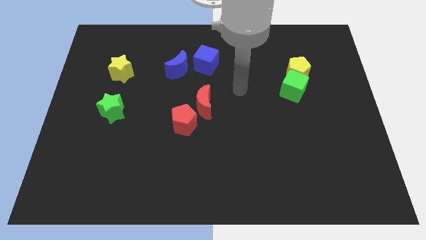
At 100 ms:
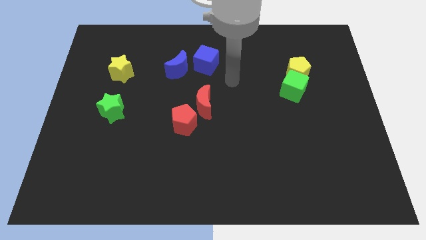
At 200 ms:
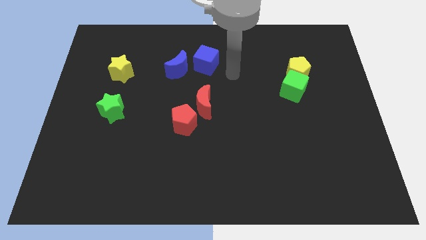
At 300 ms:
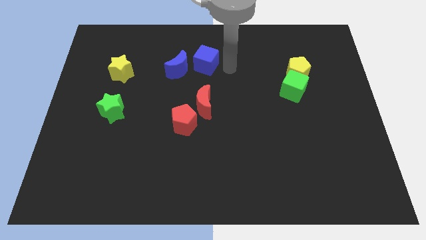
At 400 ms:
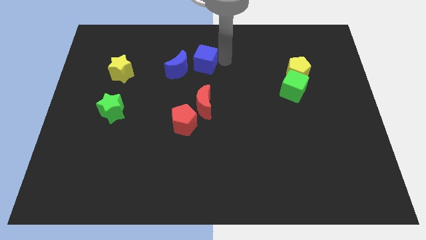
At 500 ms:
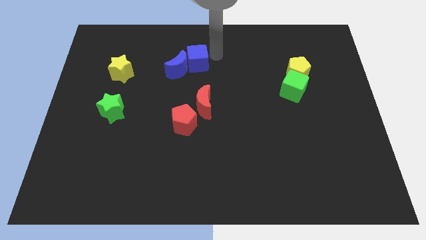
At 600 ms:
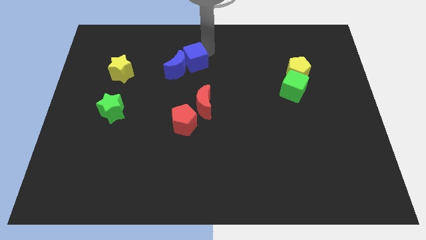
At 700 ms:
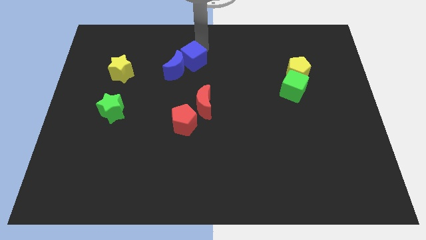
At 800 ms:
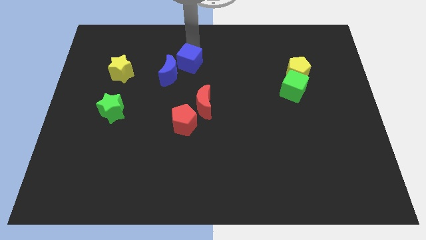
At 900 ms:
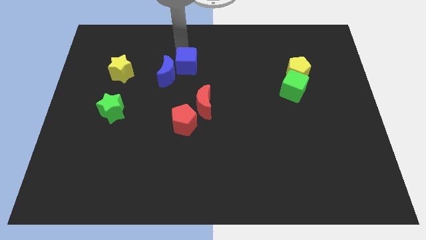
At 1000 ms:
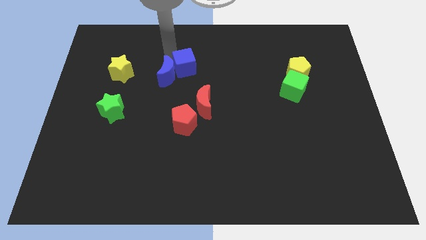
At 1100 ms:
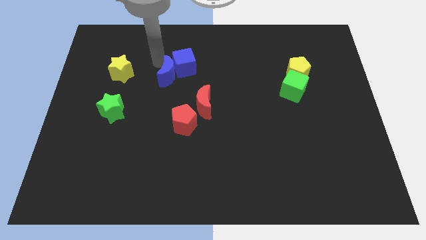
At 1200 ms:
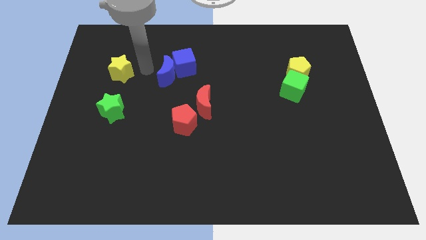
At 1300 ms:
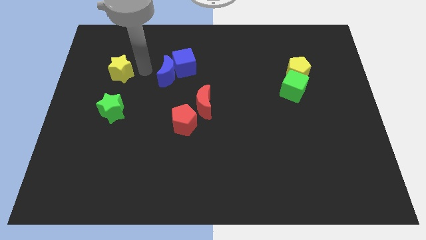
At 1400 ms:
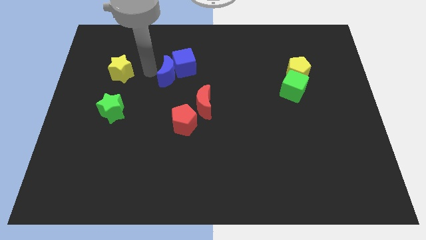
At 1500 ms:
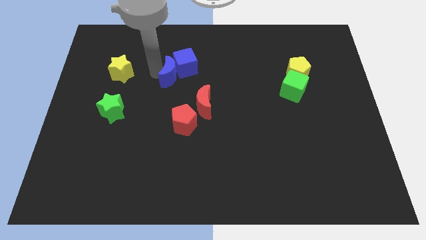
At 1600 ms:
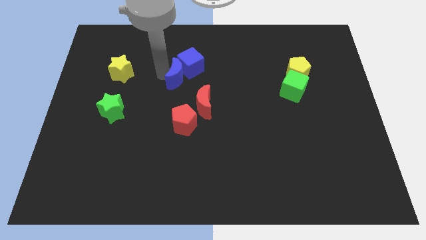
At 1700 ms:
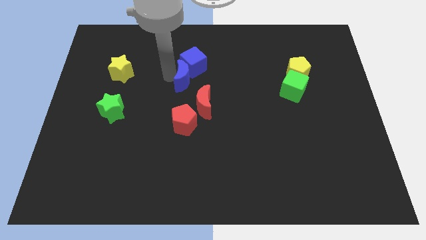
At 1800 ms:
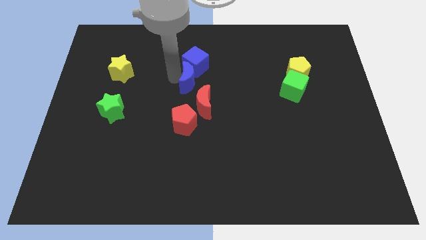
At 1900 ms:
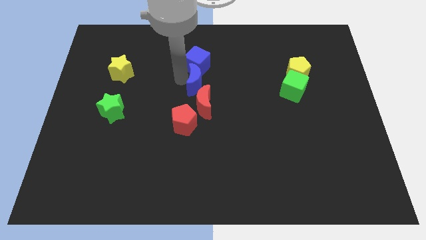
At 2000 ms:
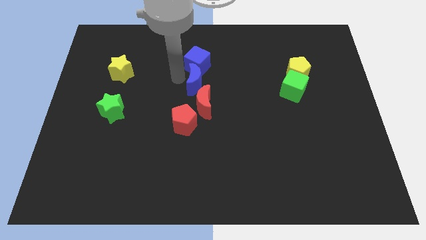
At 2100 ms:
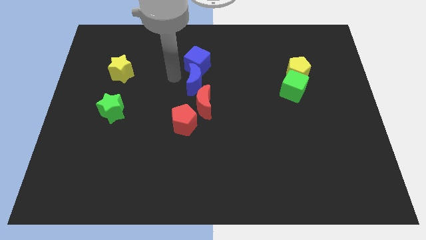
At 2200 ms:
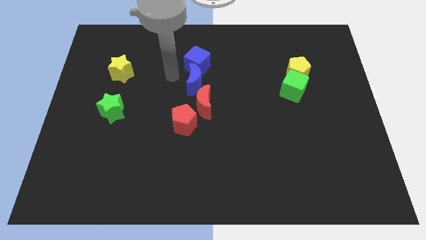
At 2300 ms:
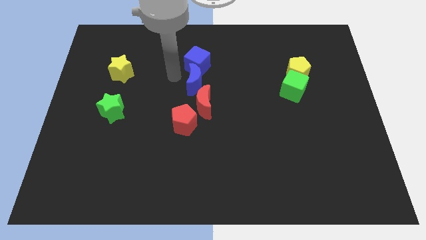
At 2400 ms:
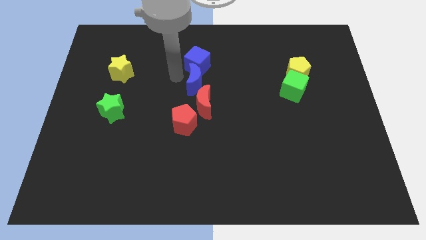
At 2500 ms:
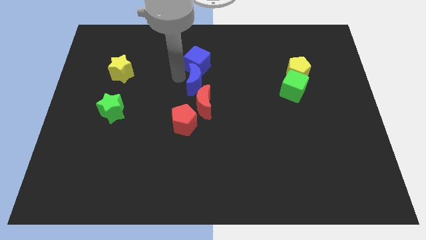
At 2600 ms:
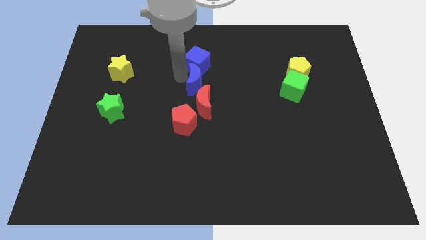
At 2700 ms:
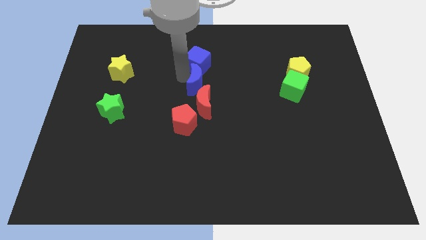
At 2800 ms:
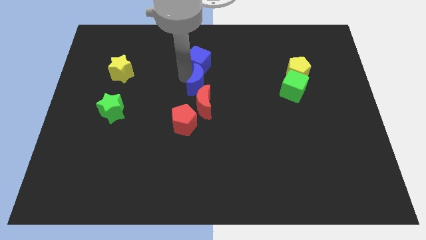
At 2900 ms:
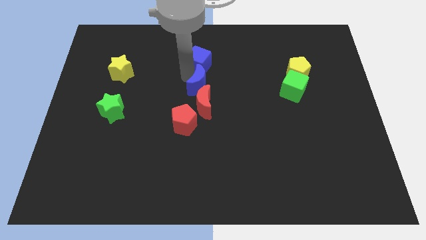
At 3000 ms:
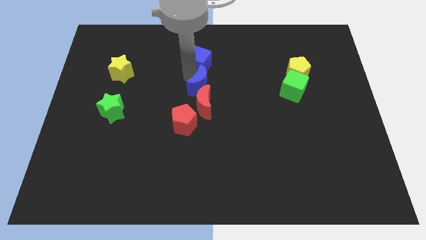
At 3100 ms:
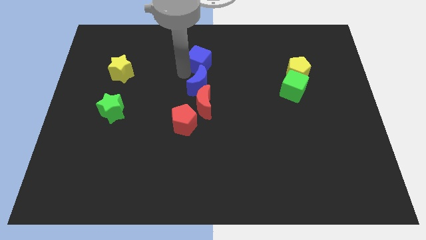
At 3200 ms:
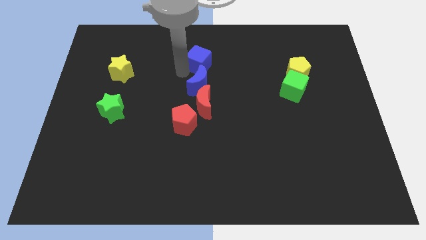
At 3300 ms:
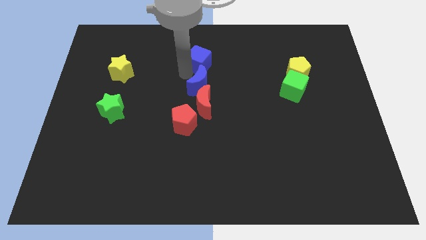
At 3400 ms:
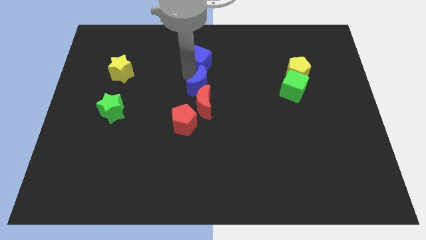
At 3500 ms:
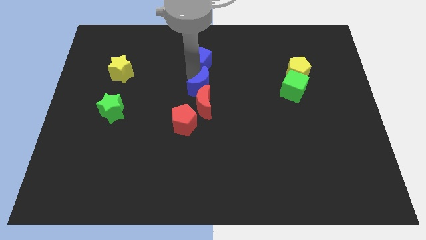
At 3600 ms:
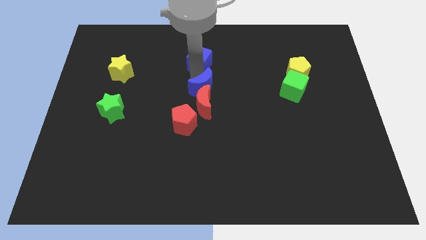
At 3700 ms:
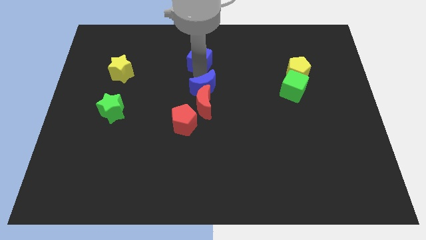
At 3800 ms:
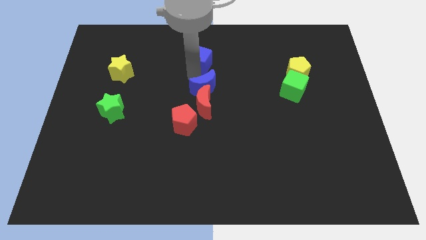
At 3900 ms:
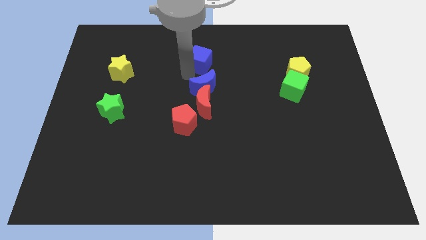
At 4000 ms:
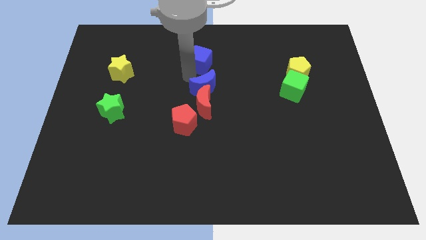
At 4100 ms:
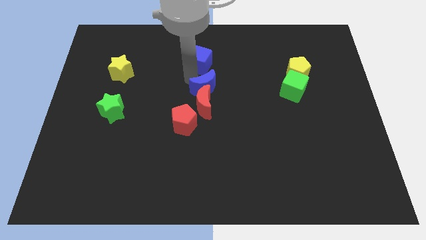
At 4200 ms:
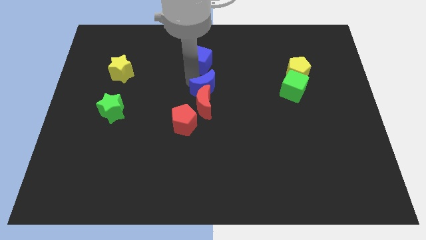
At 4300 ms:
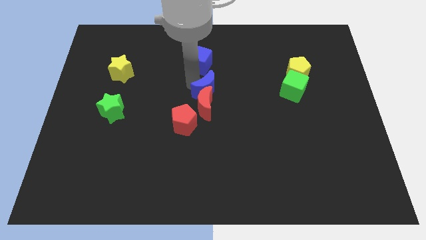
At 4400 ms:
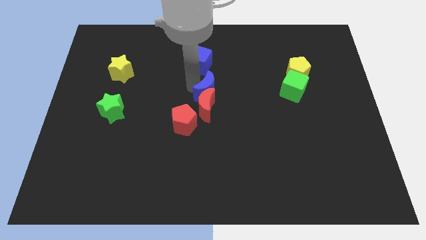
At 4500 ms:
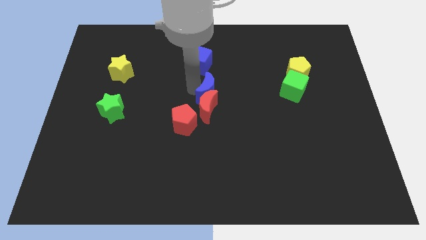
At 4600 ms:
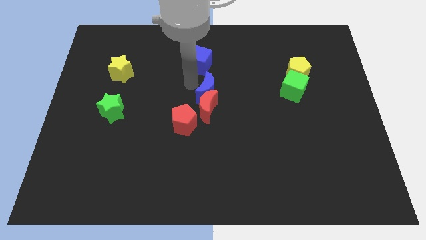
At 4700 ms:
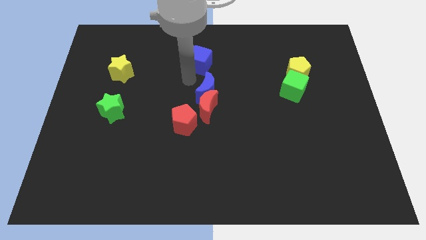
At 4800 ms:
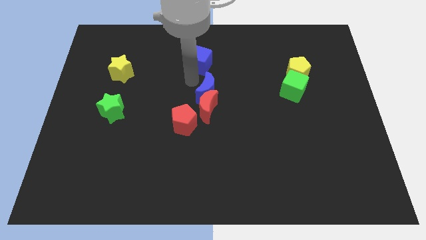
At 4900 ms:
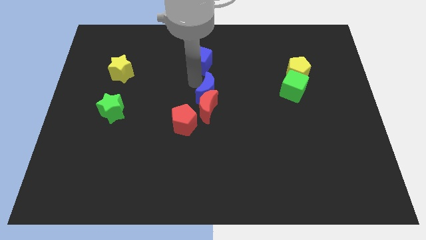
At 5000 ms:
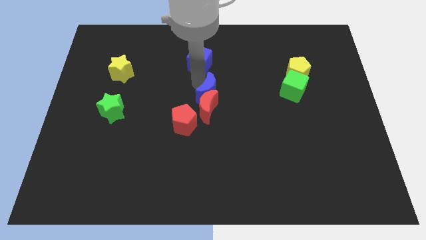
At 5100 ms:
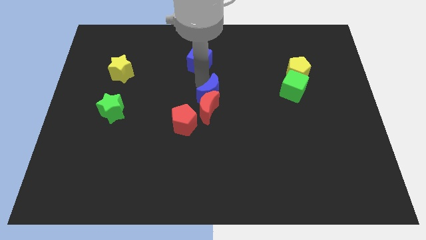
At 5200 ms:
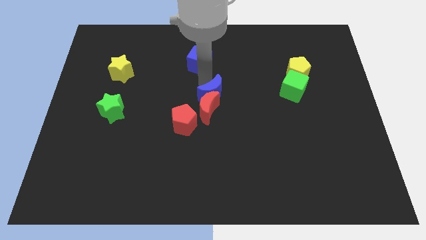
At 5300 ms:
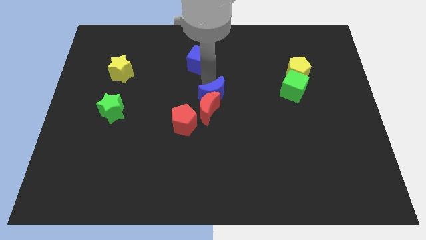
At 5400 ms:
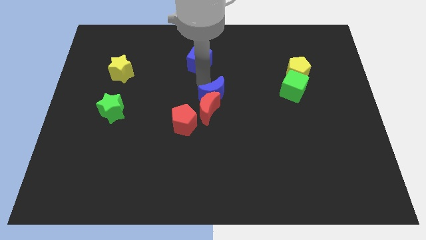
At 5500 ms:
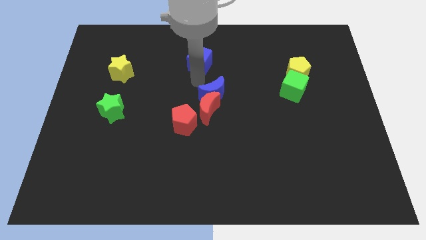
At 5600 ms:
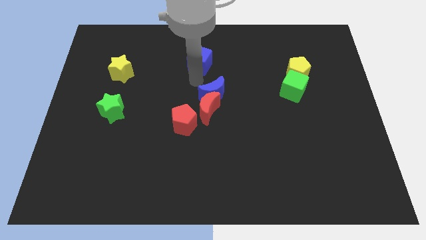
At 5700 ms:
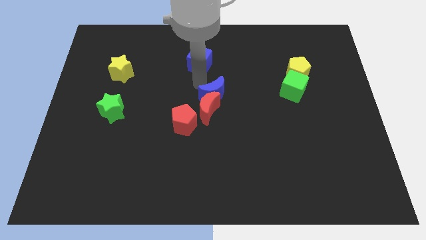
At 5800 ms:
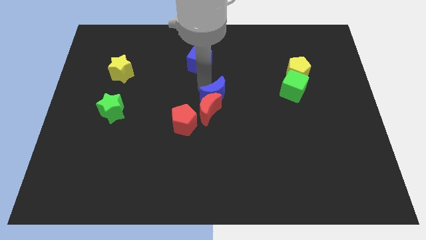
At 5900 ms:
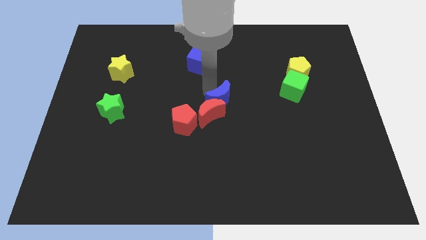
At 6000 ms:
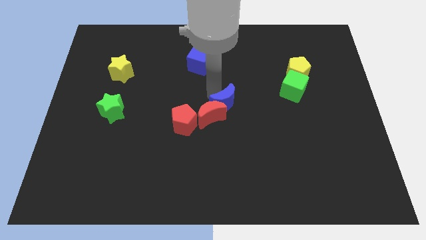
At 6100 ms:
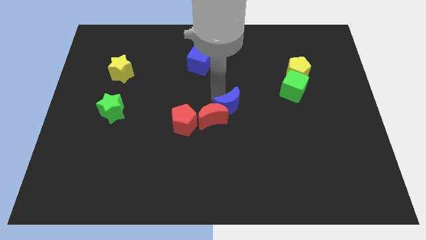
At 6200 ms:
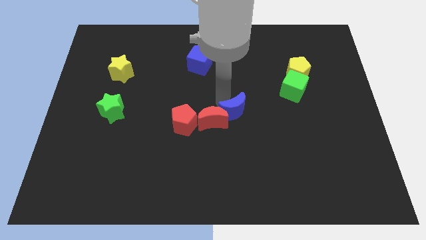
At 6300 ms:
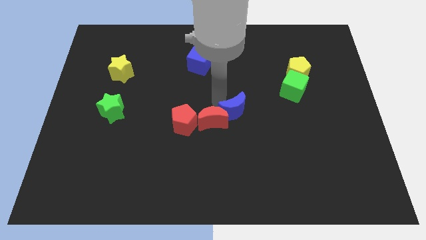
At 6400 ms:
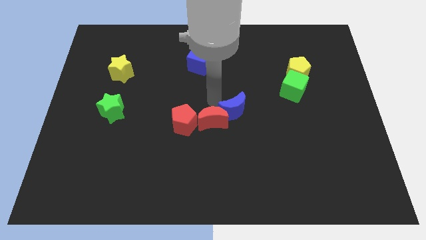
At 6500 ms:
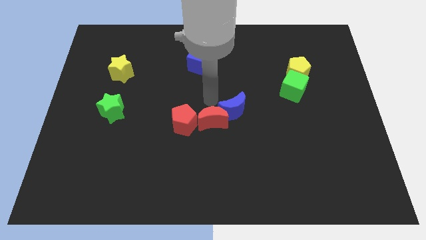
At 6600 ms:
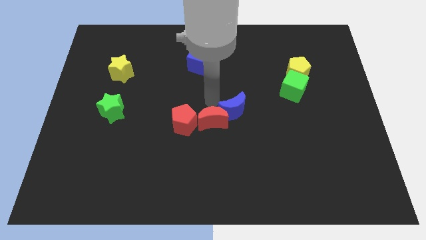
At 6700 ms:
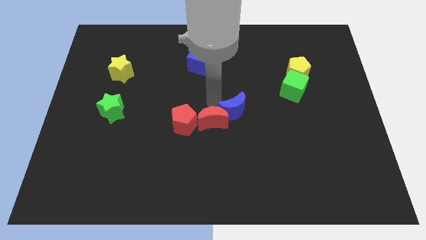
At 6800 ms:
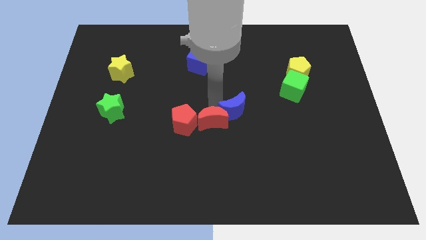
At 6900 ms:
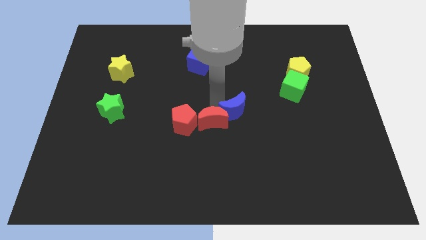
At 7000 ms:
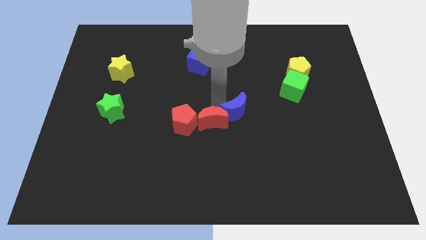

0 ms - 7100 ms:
slide the blue moon diagonally downwards and right

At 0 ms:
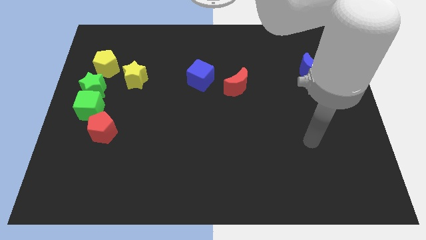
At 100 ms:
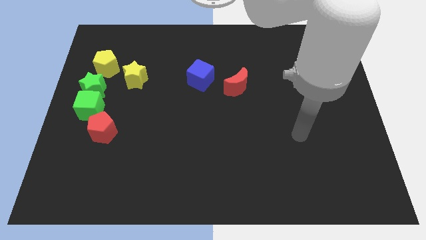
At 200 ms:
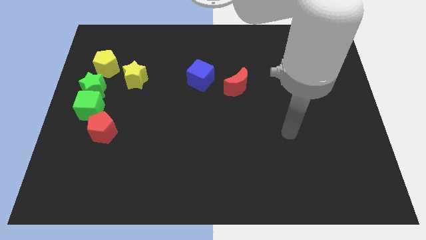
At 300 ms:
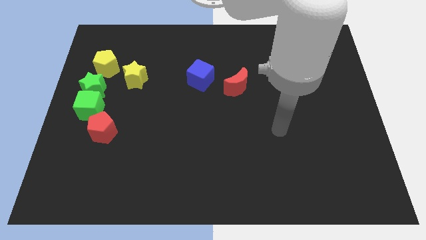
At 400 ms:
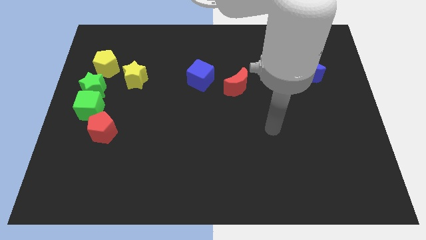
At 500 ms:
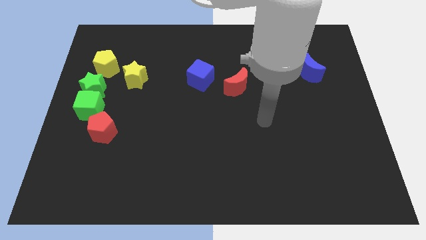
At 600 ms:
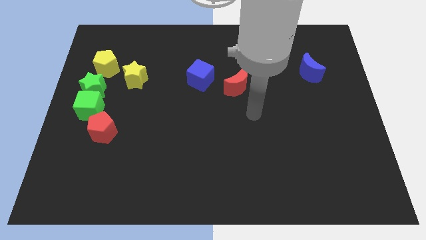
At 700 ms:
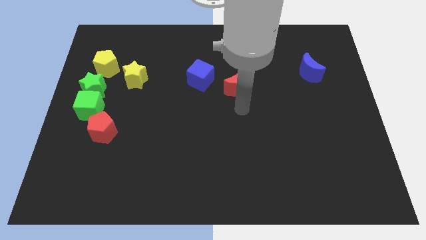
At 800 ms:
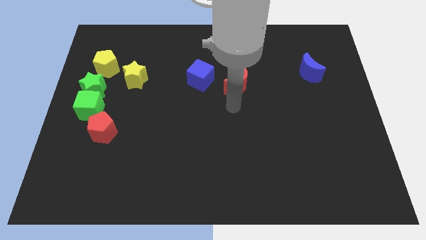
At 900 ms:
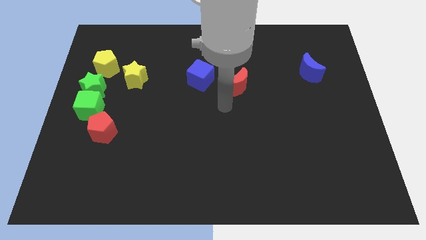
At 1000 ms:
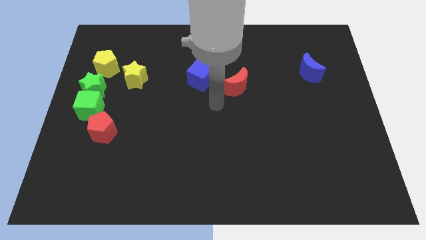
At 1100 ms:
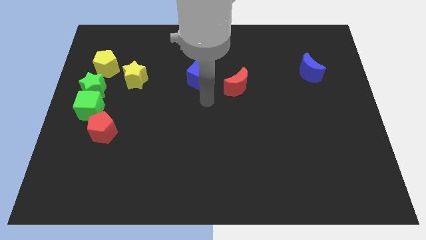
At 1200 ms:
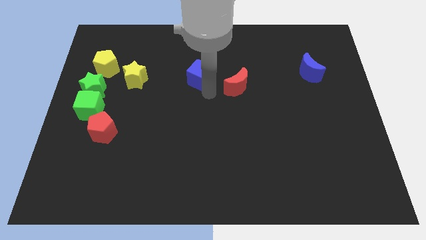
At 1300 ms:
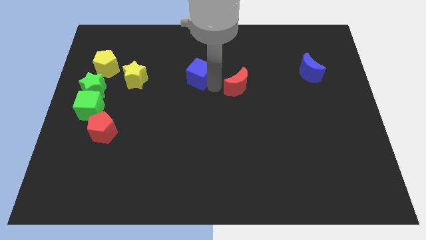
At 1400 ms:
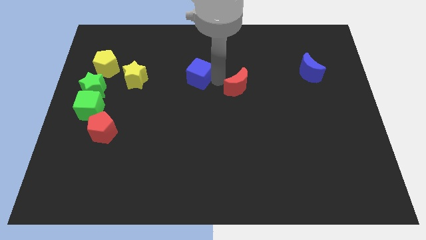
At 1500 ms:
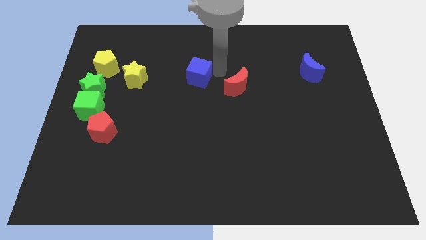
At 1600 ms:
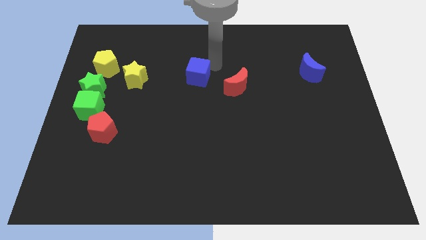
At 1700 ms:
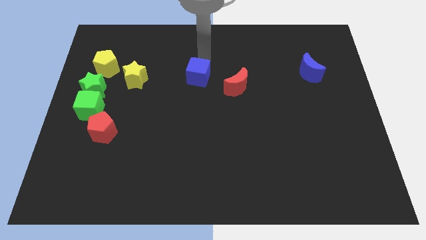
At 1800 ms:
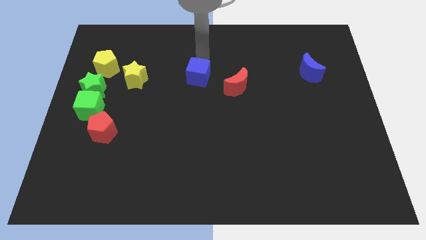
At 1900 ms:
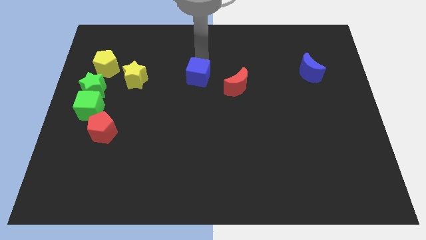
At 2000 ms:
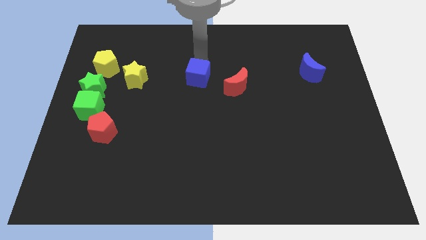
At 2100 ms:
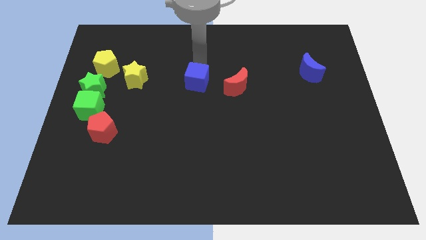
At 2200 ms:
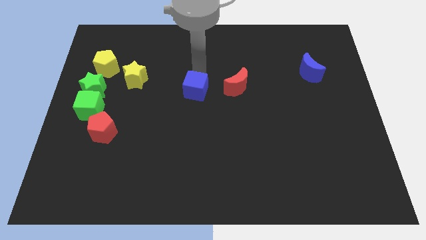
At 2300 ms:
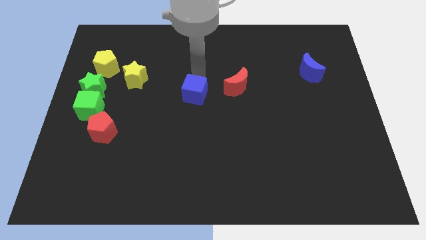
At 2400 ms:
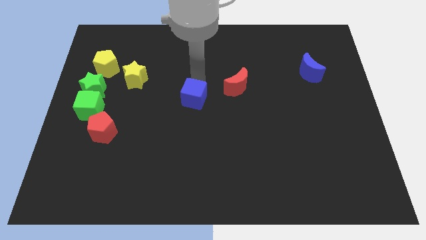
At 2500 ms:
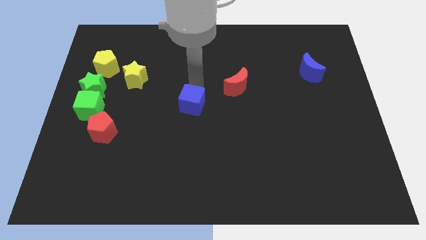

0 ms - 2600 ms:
move the blue cube downwards somewhat
